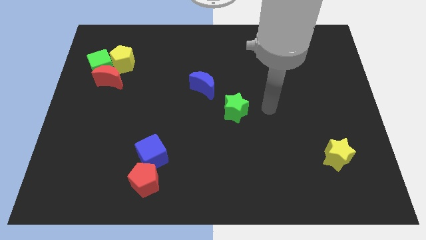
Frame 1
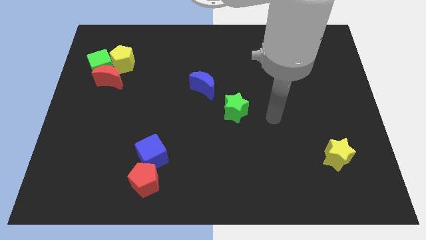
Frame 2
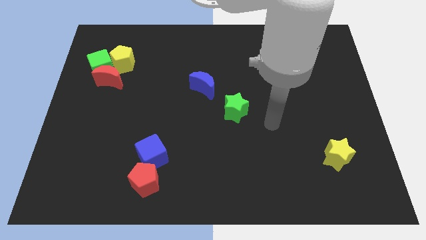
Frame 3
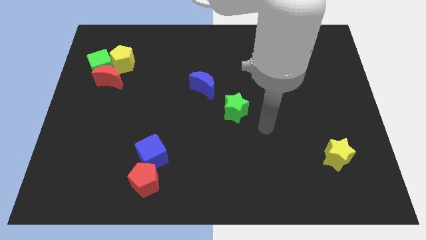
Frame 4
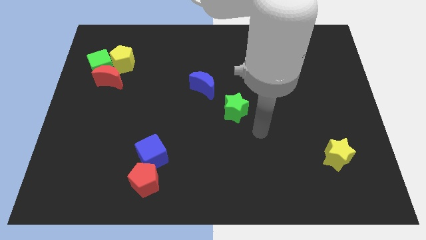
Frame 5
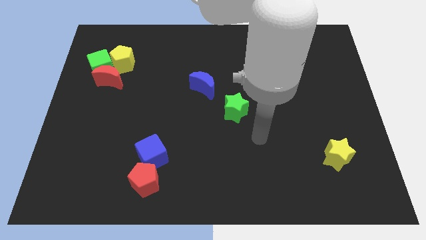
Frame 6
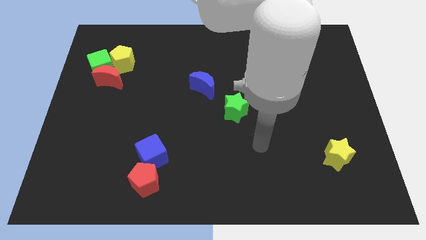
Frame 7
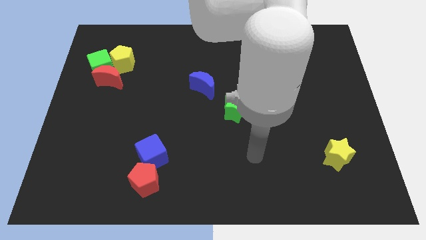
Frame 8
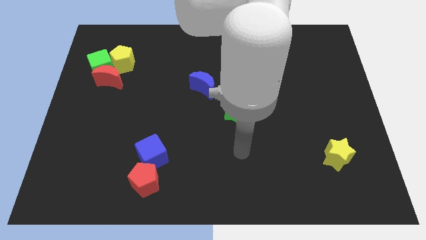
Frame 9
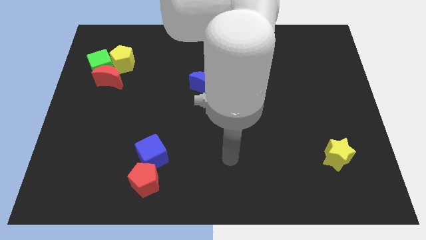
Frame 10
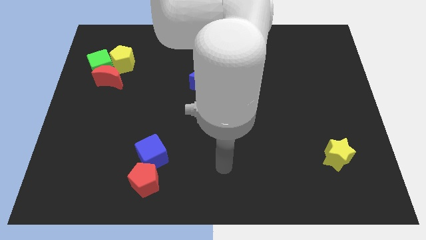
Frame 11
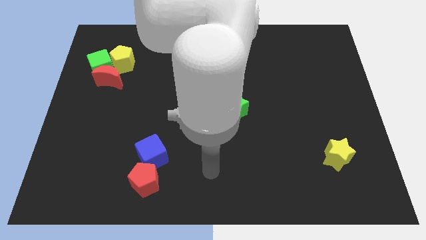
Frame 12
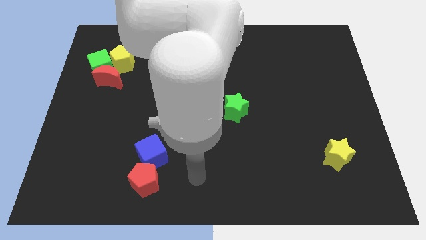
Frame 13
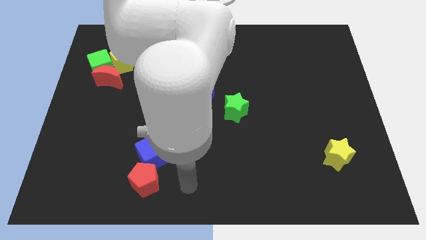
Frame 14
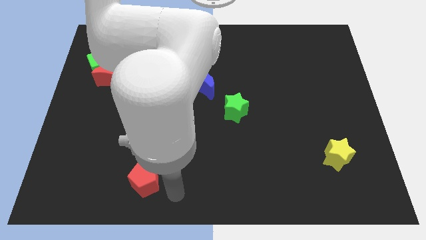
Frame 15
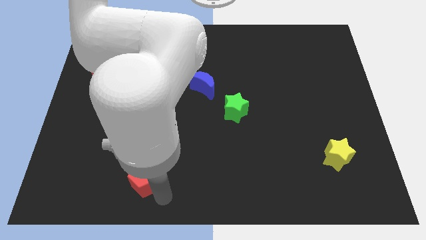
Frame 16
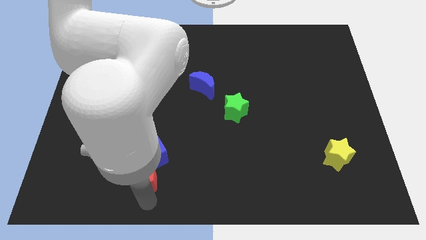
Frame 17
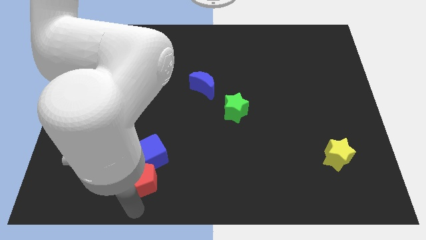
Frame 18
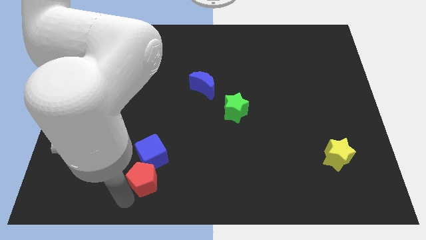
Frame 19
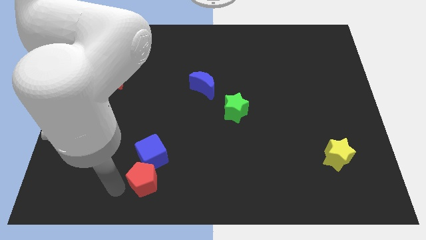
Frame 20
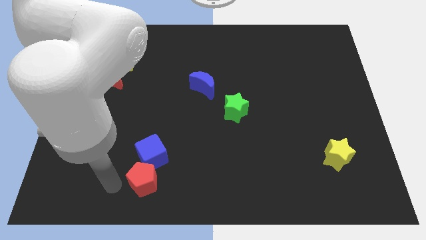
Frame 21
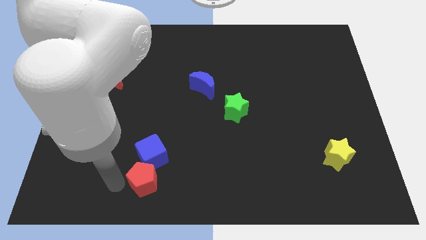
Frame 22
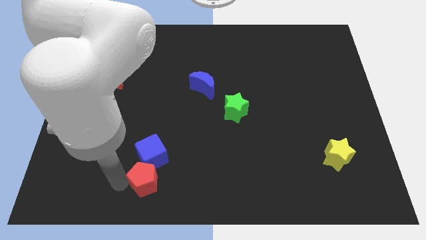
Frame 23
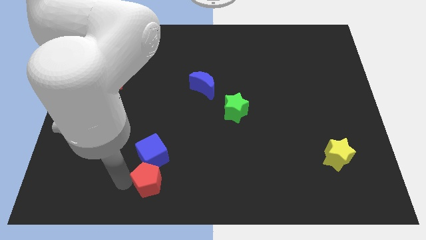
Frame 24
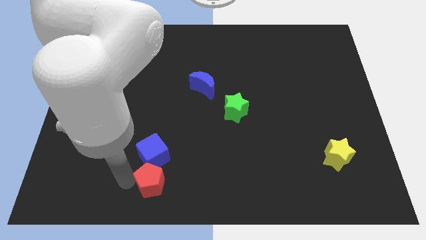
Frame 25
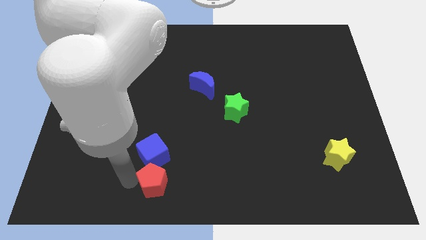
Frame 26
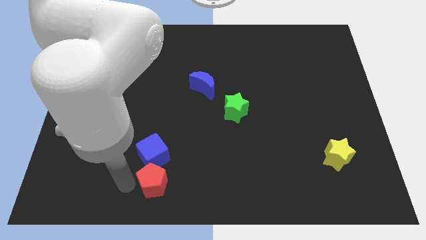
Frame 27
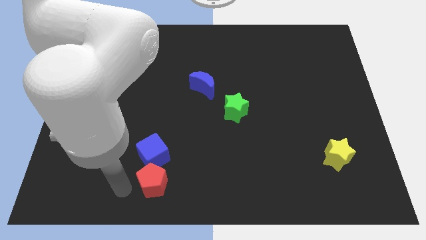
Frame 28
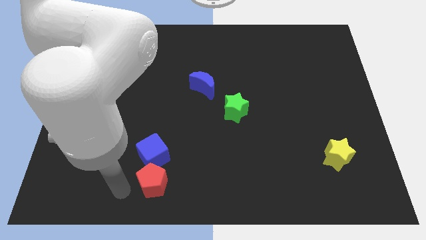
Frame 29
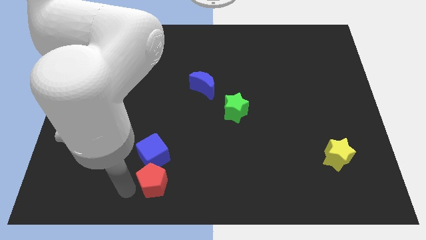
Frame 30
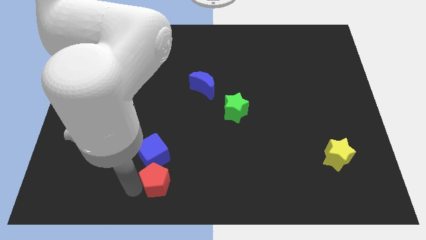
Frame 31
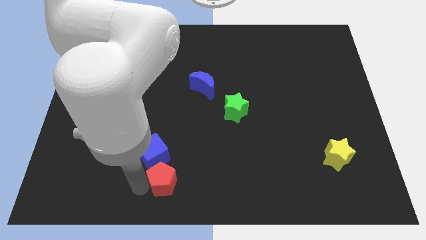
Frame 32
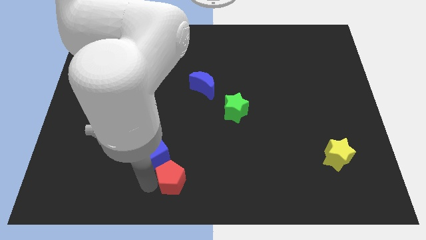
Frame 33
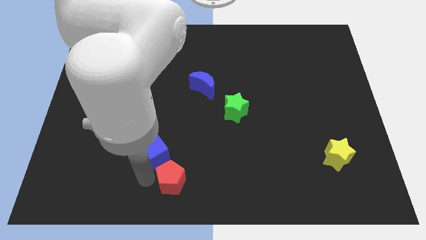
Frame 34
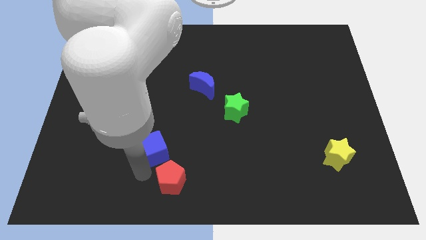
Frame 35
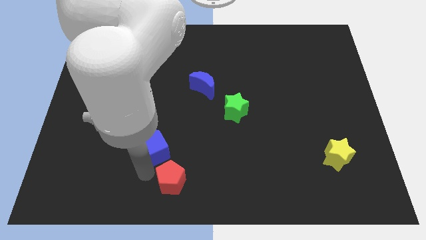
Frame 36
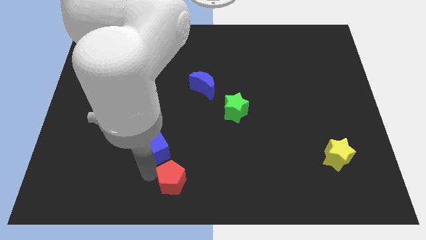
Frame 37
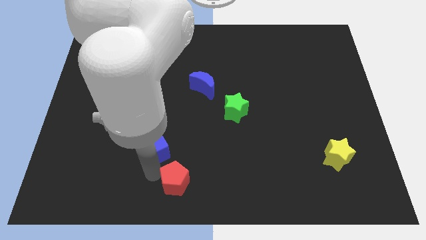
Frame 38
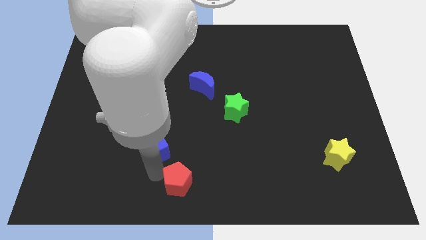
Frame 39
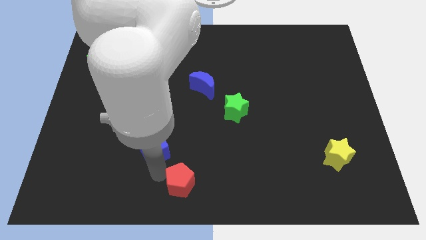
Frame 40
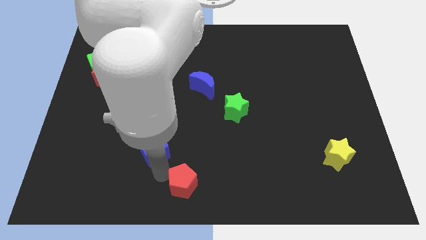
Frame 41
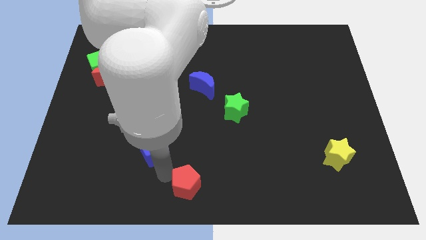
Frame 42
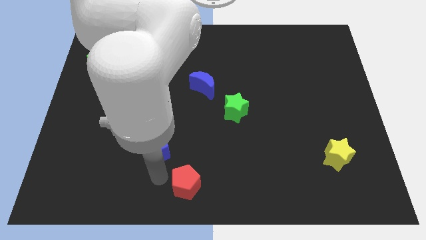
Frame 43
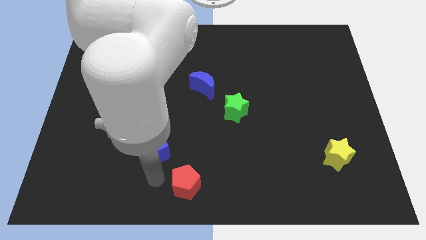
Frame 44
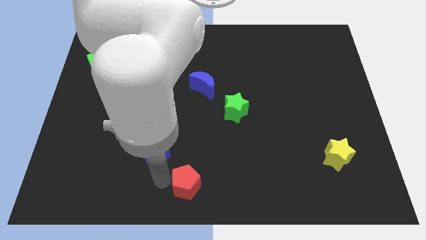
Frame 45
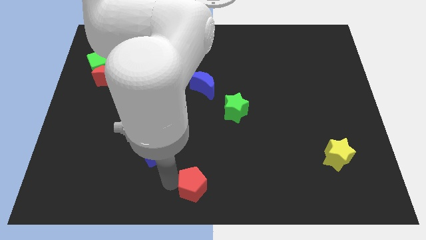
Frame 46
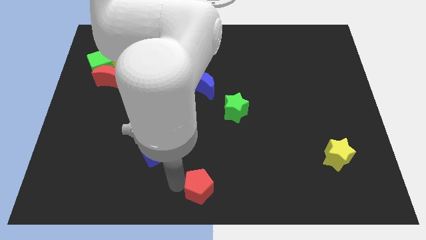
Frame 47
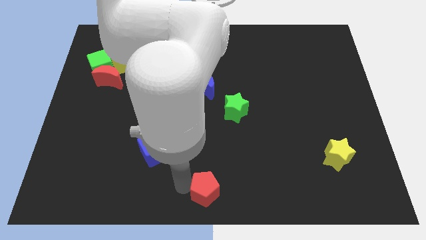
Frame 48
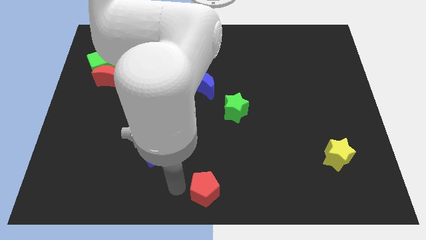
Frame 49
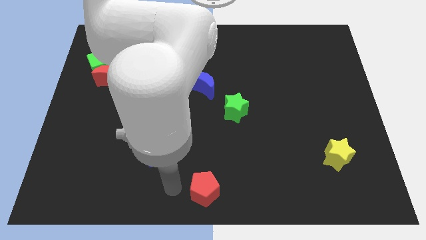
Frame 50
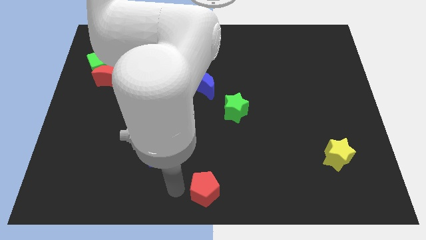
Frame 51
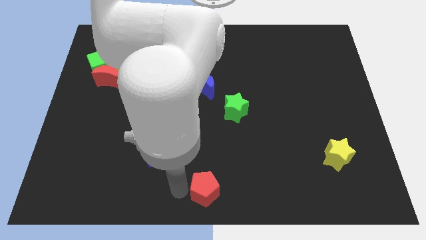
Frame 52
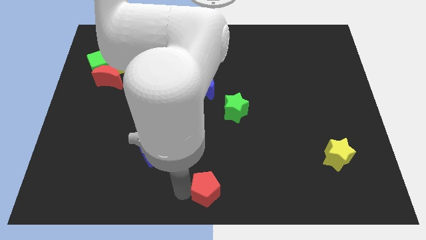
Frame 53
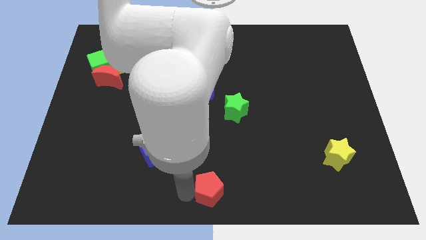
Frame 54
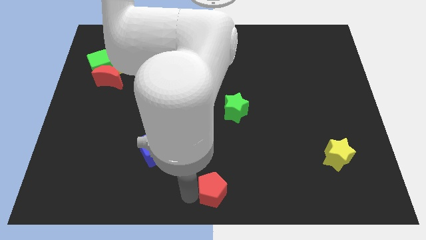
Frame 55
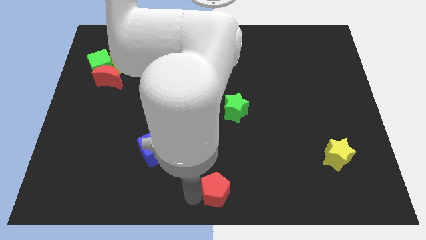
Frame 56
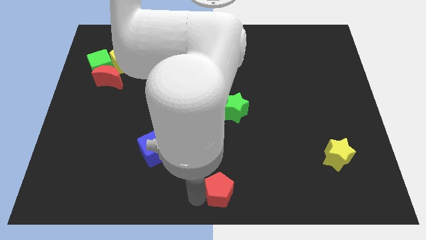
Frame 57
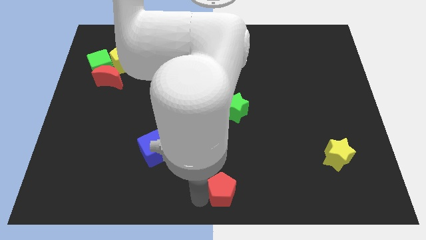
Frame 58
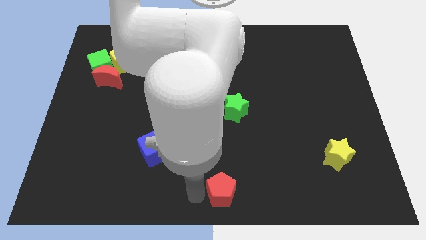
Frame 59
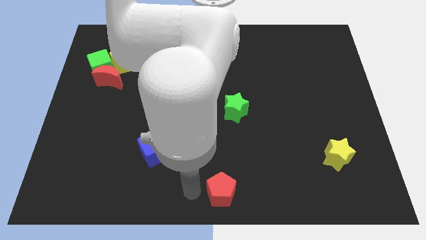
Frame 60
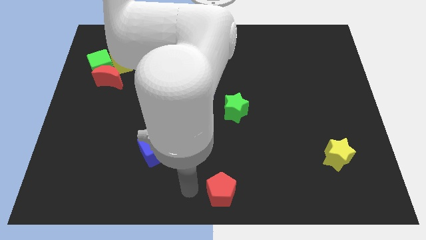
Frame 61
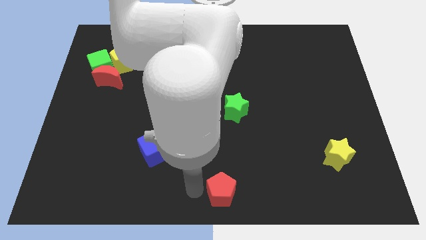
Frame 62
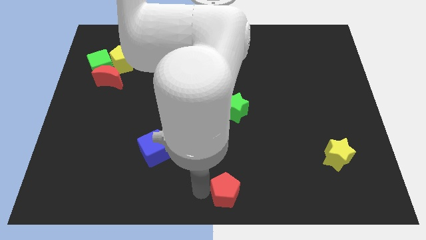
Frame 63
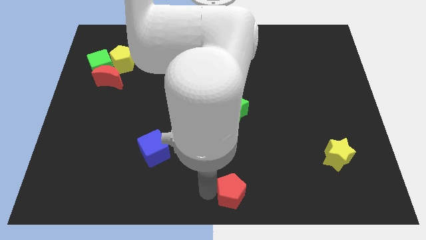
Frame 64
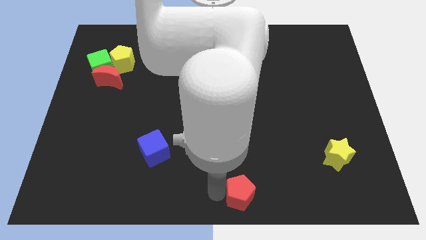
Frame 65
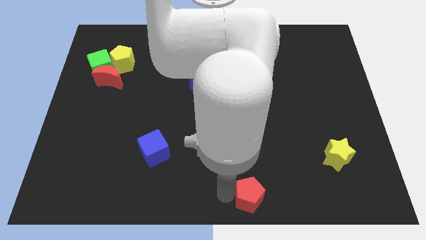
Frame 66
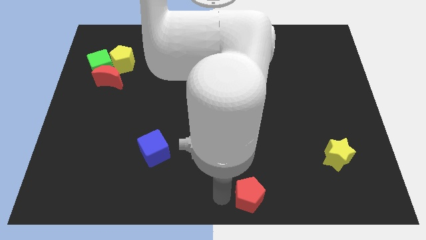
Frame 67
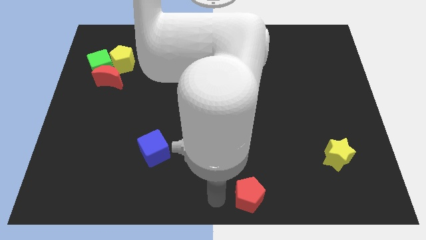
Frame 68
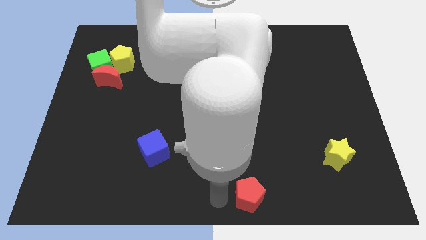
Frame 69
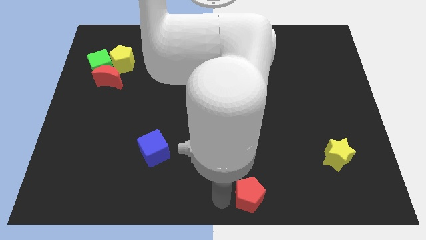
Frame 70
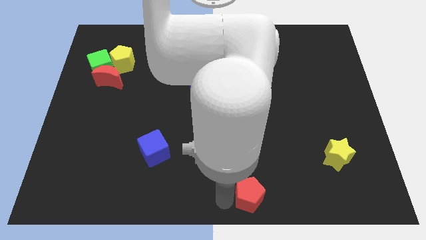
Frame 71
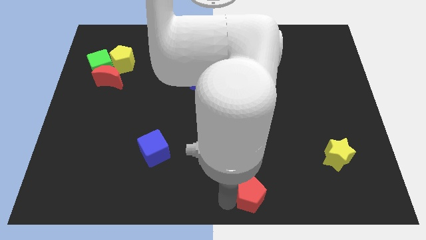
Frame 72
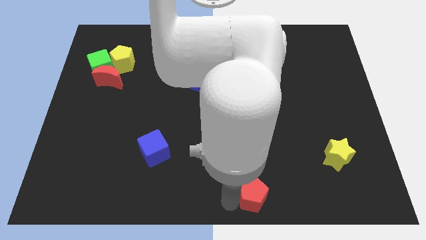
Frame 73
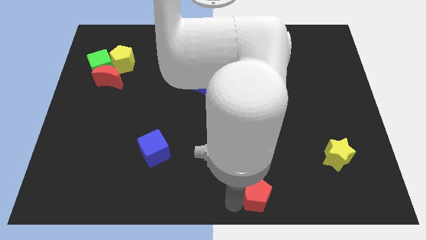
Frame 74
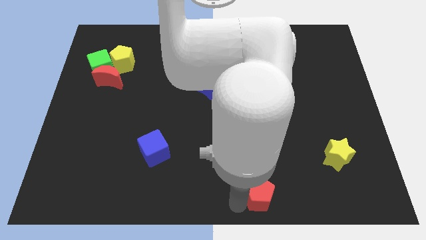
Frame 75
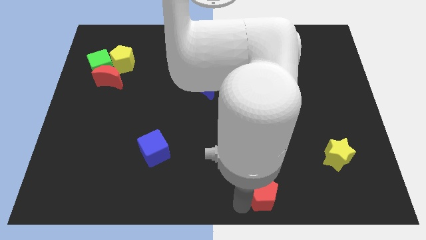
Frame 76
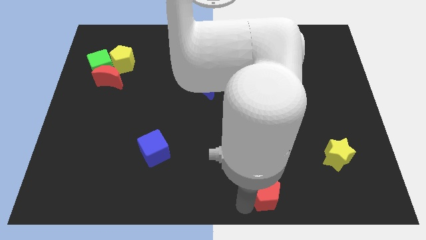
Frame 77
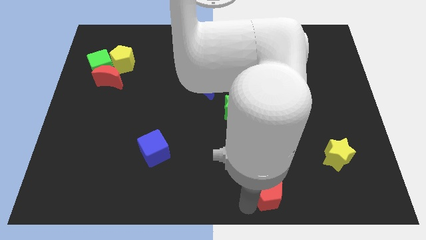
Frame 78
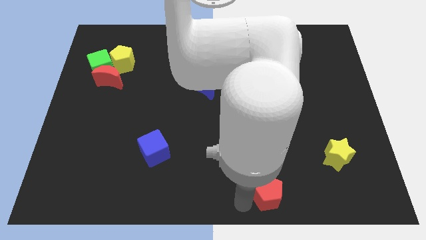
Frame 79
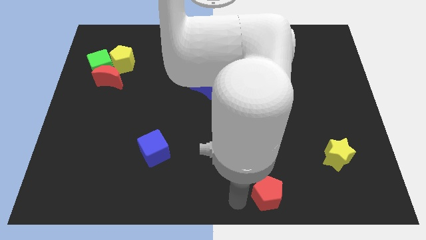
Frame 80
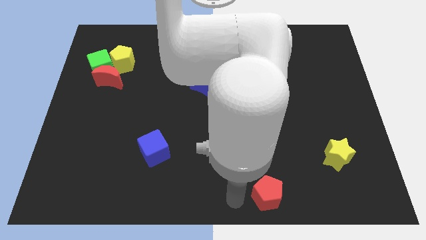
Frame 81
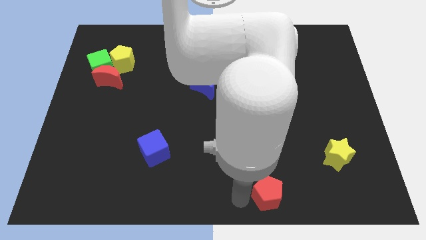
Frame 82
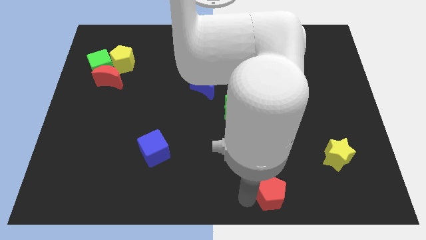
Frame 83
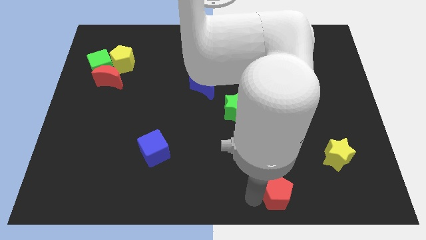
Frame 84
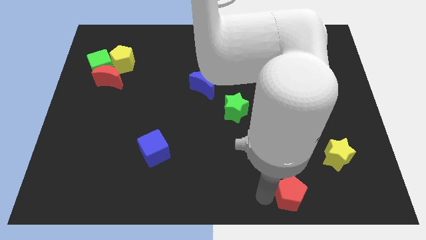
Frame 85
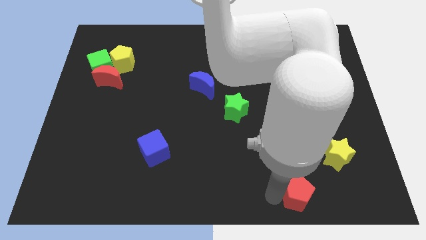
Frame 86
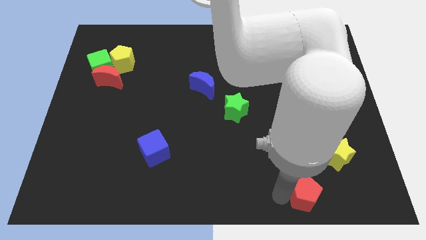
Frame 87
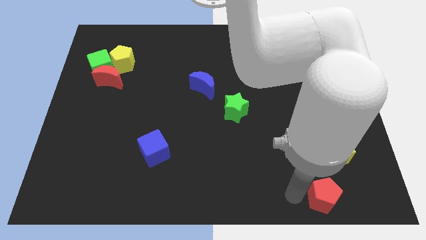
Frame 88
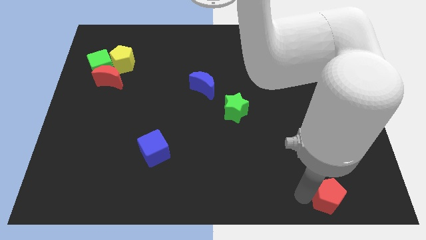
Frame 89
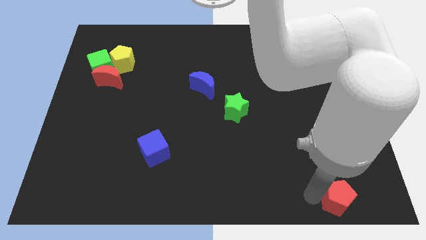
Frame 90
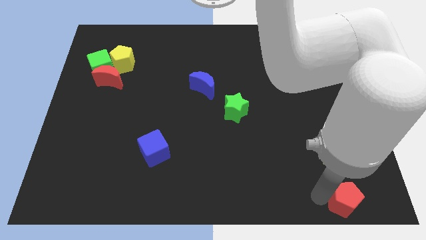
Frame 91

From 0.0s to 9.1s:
move the red pentagon to the bottom right corner
